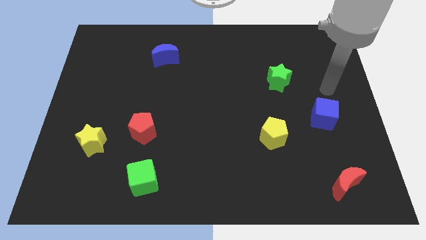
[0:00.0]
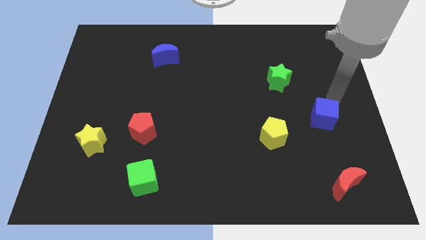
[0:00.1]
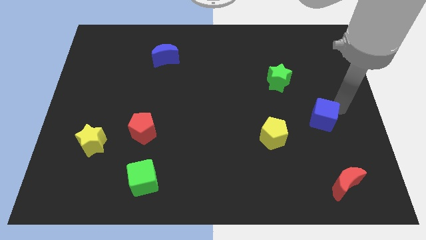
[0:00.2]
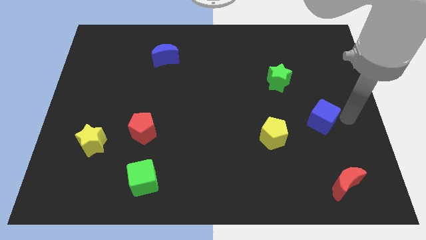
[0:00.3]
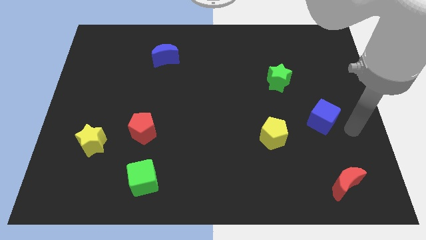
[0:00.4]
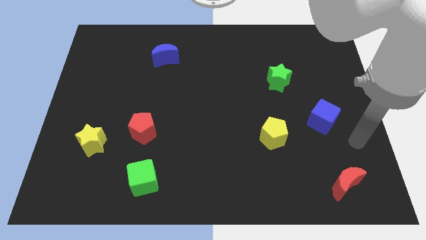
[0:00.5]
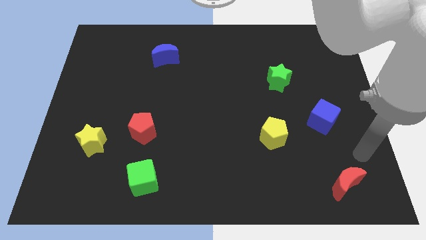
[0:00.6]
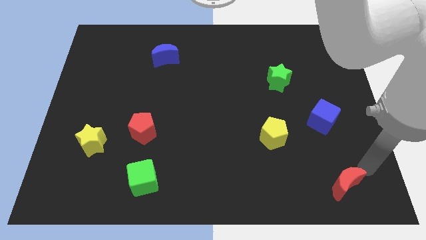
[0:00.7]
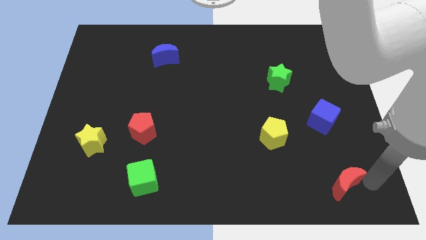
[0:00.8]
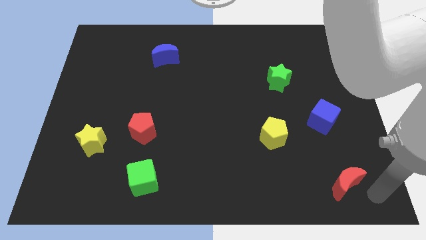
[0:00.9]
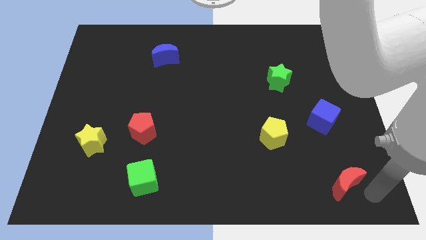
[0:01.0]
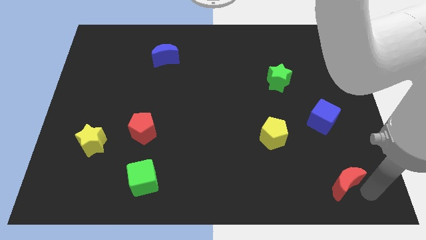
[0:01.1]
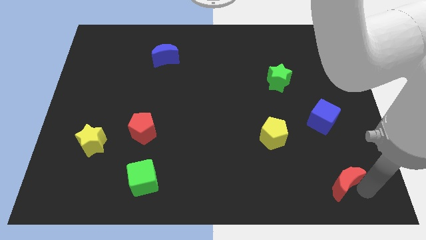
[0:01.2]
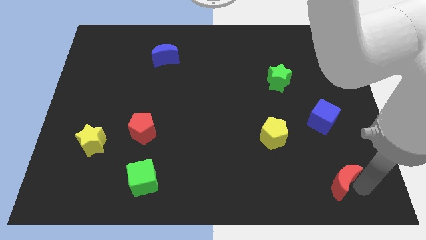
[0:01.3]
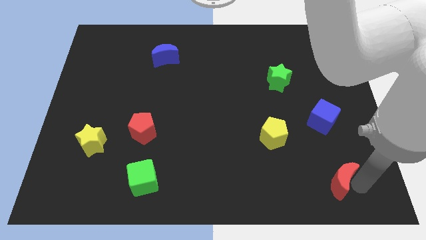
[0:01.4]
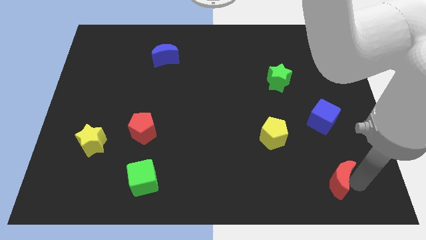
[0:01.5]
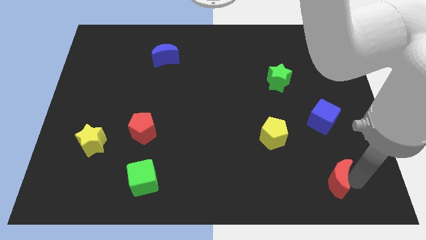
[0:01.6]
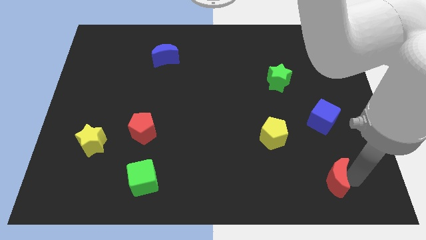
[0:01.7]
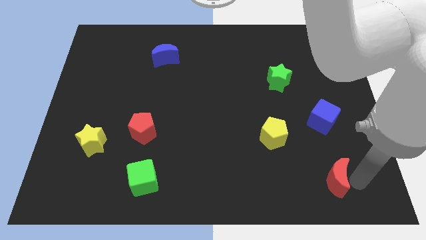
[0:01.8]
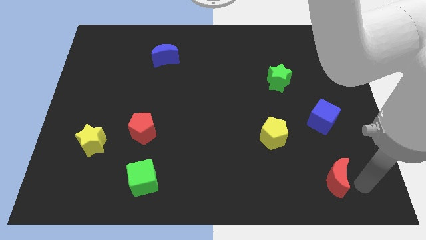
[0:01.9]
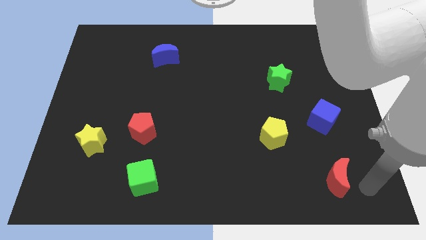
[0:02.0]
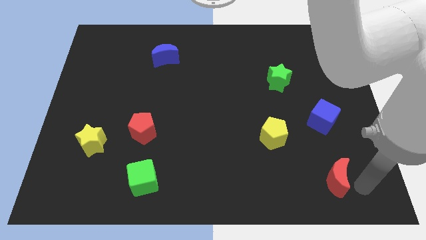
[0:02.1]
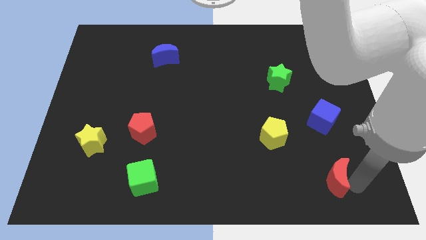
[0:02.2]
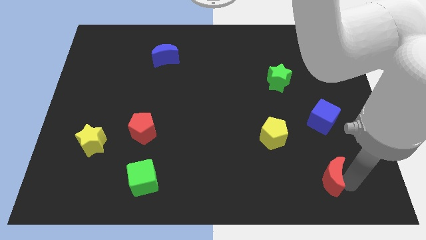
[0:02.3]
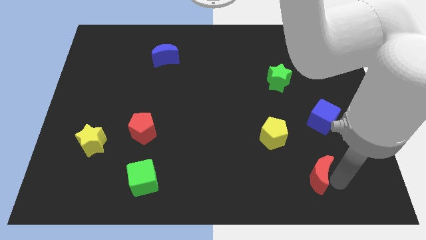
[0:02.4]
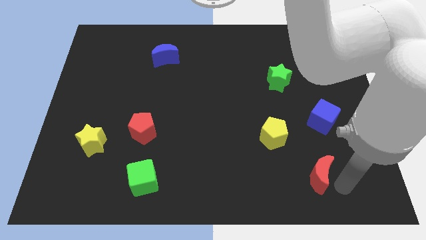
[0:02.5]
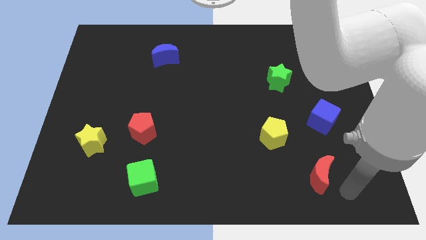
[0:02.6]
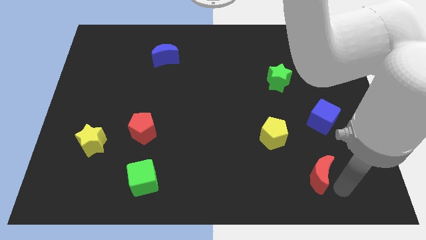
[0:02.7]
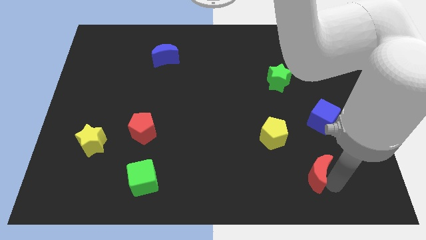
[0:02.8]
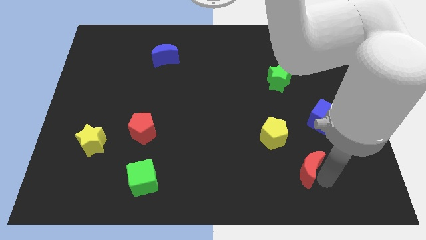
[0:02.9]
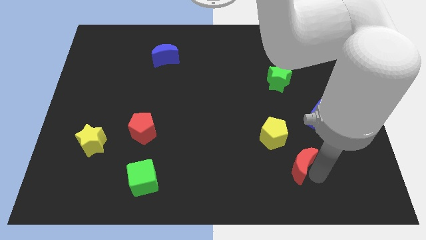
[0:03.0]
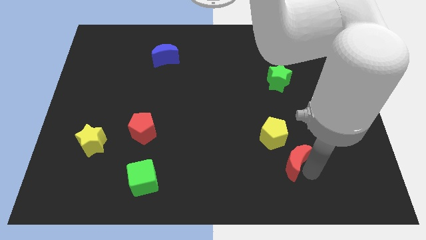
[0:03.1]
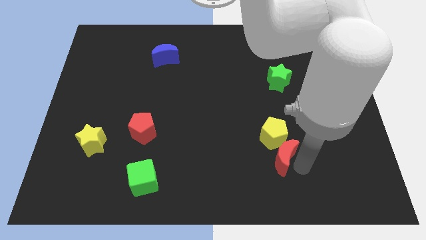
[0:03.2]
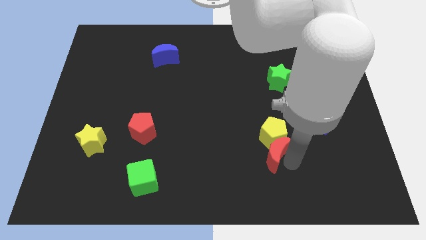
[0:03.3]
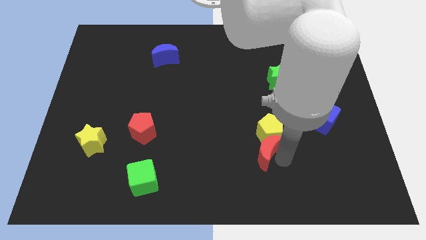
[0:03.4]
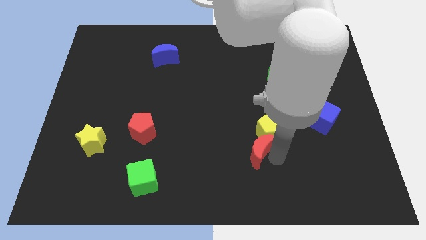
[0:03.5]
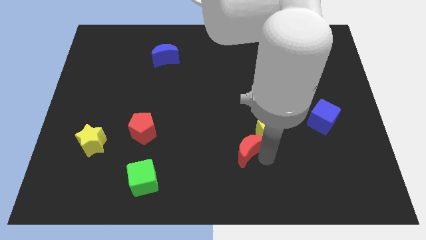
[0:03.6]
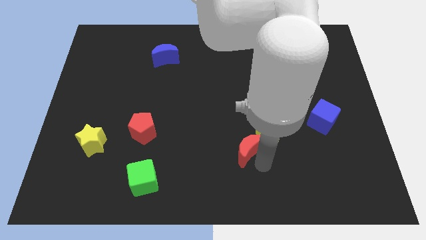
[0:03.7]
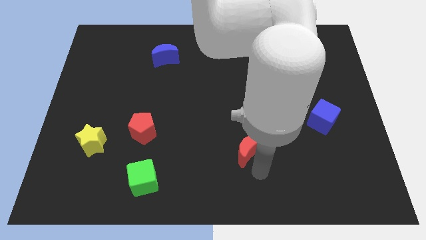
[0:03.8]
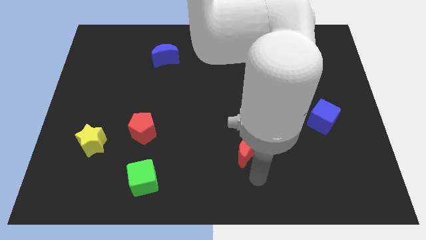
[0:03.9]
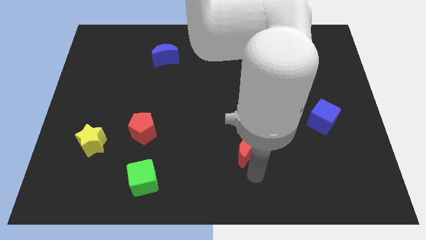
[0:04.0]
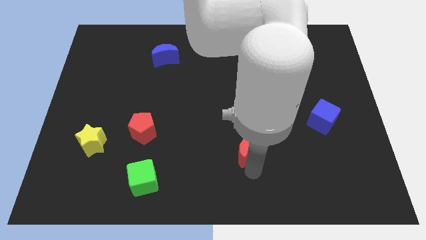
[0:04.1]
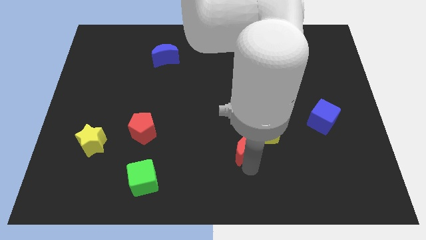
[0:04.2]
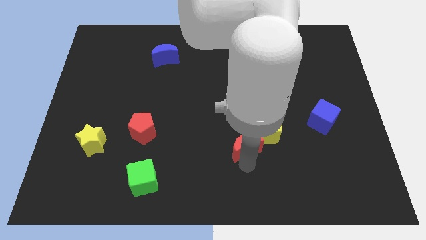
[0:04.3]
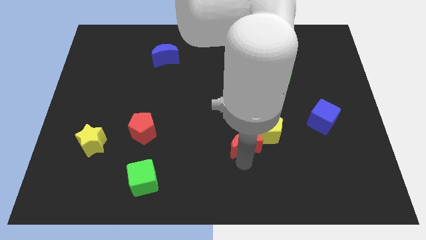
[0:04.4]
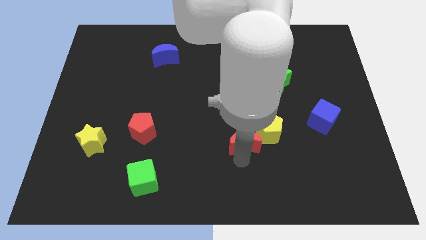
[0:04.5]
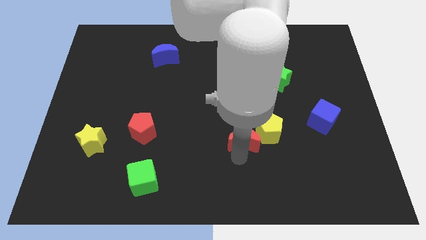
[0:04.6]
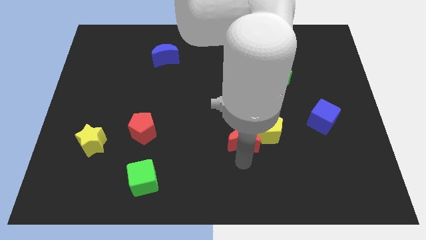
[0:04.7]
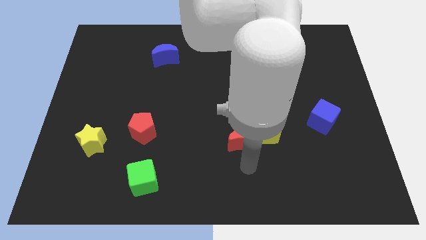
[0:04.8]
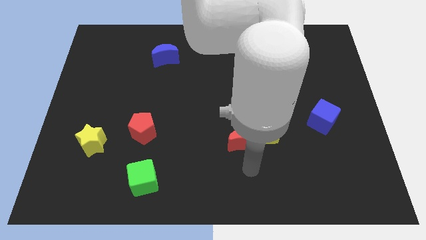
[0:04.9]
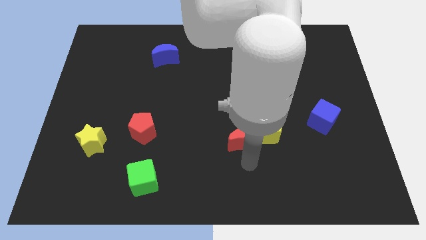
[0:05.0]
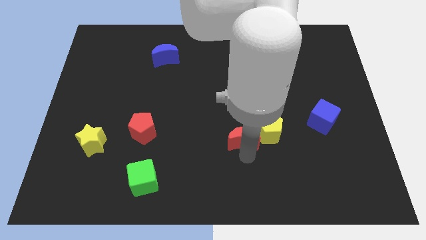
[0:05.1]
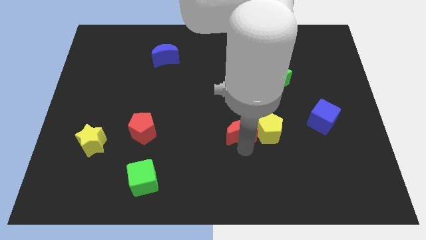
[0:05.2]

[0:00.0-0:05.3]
move the red moon to the middle

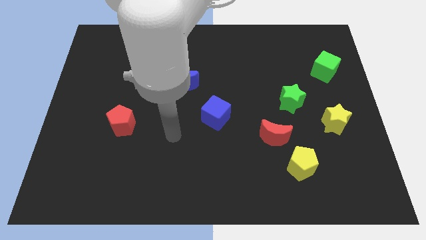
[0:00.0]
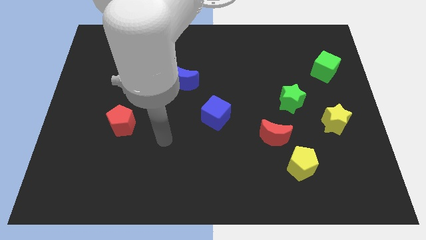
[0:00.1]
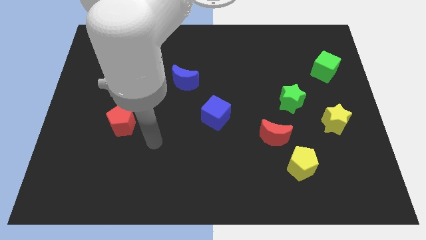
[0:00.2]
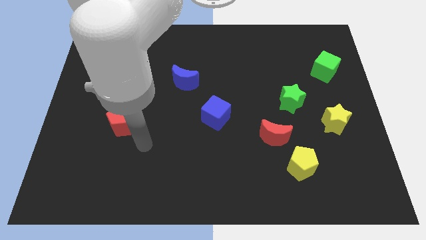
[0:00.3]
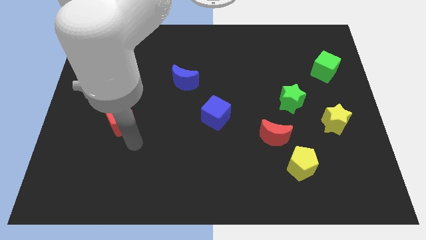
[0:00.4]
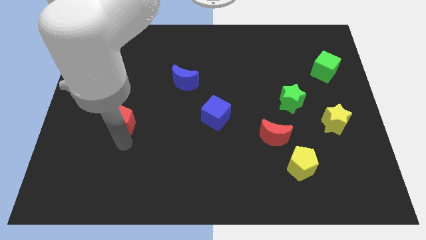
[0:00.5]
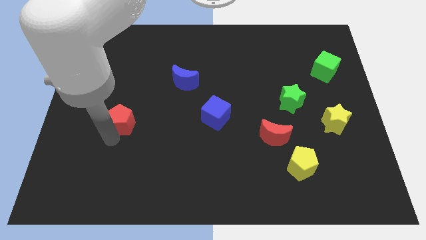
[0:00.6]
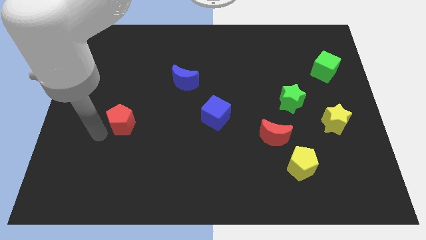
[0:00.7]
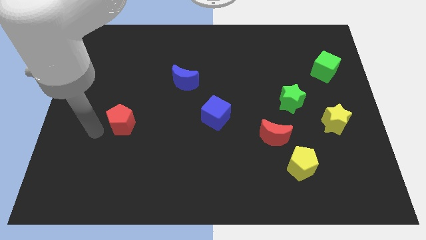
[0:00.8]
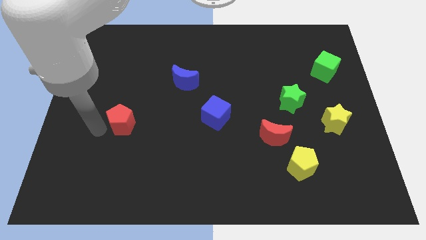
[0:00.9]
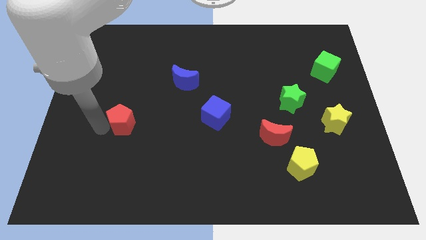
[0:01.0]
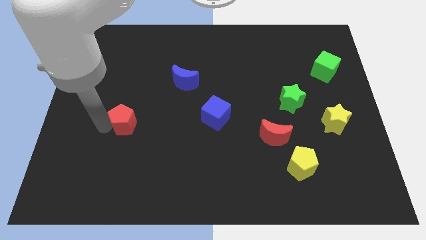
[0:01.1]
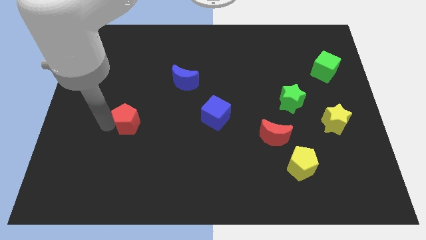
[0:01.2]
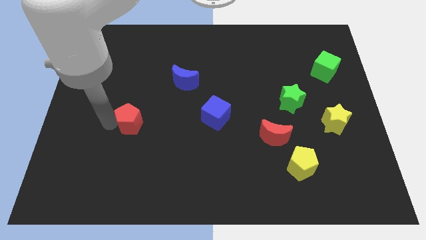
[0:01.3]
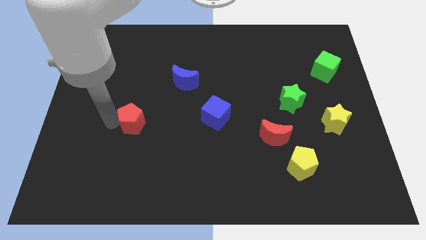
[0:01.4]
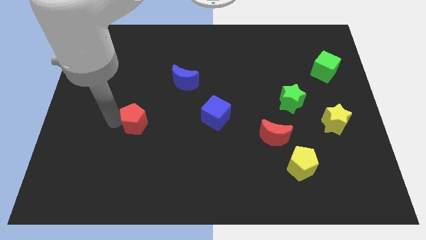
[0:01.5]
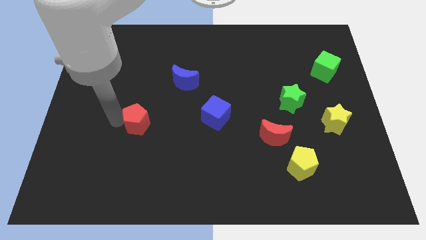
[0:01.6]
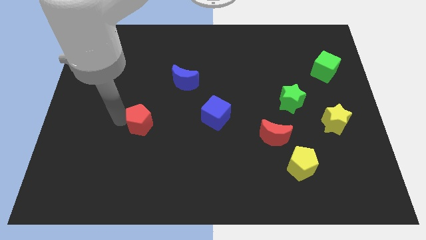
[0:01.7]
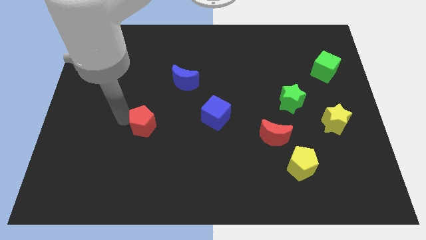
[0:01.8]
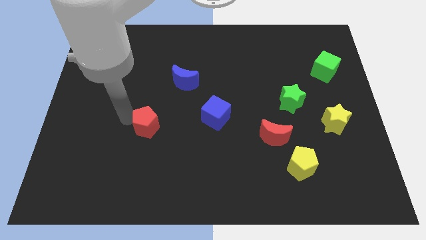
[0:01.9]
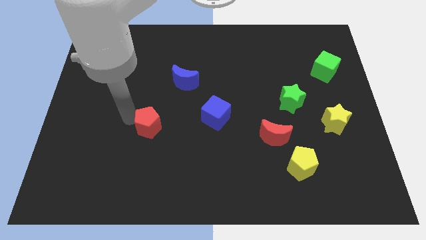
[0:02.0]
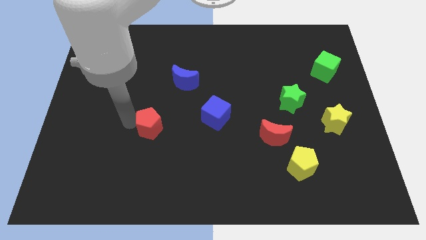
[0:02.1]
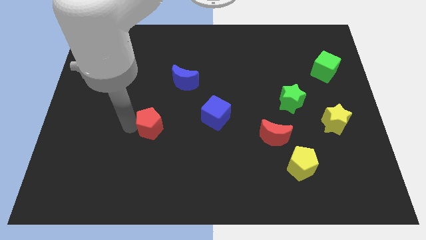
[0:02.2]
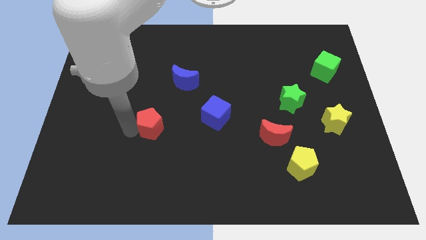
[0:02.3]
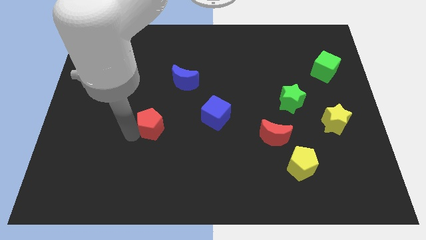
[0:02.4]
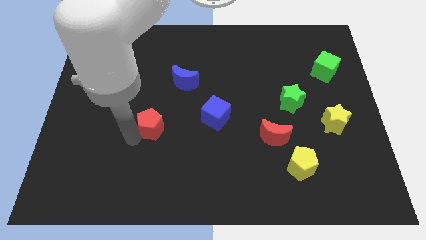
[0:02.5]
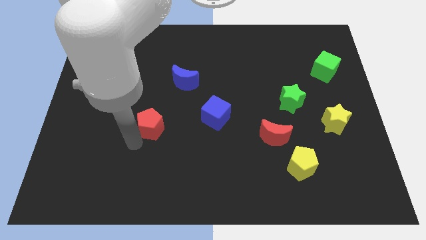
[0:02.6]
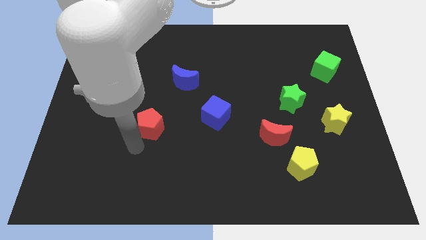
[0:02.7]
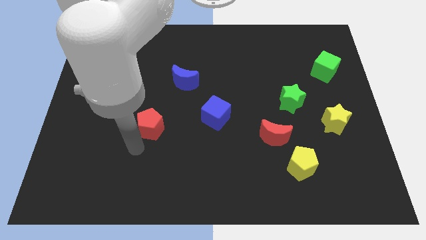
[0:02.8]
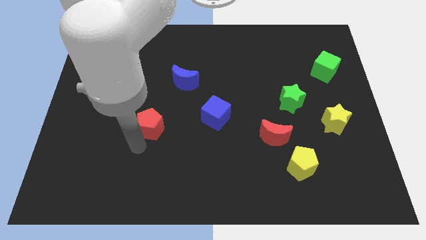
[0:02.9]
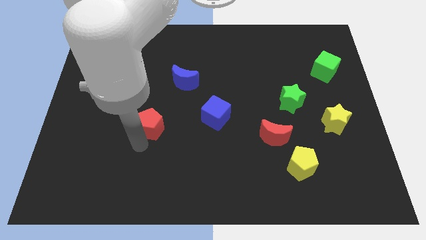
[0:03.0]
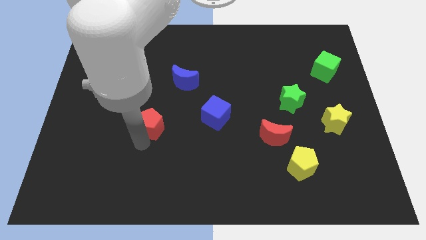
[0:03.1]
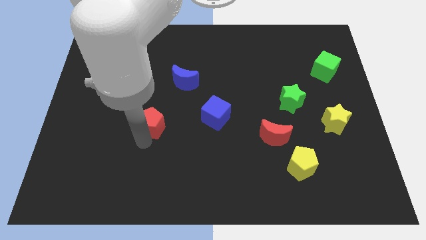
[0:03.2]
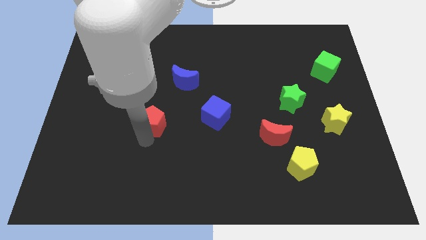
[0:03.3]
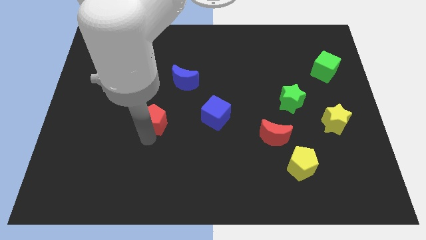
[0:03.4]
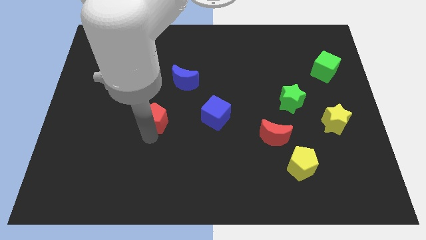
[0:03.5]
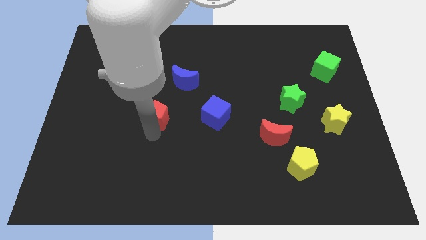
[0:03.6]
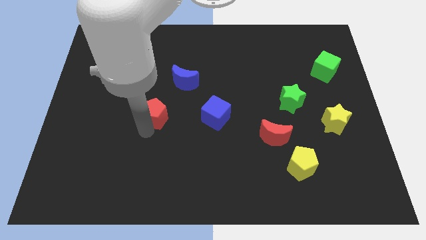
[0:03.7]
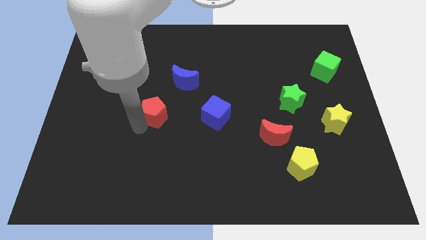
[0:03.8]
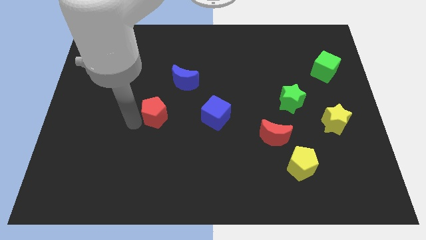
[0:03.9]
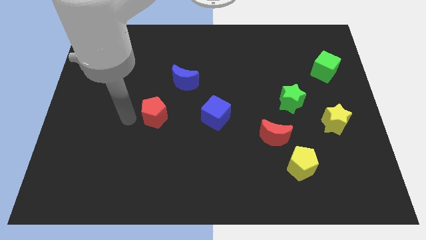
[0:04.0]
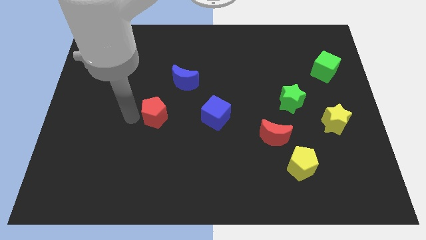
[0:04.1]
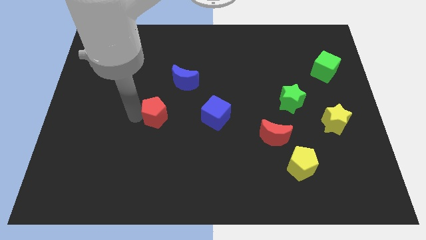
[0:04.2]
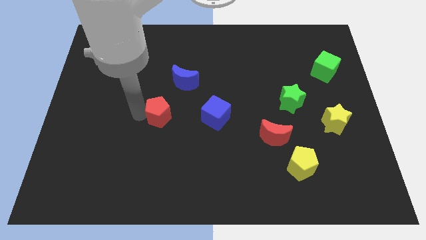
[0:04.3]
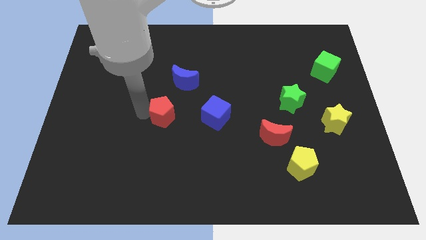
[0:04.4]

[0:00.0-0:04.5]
push the red pentagon to the middle
